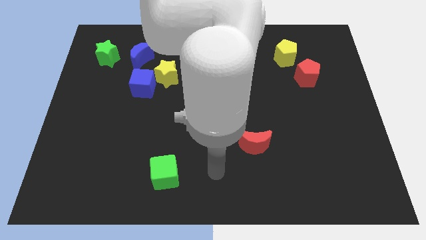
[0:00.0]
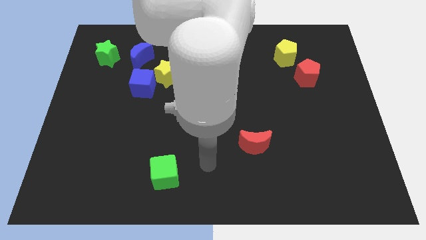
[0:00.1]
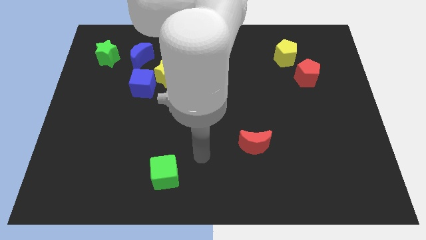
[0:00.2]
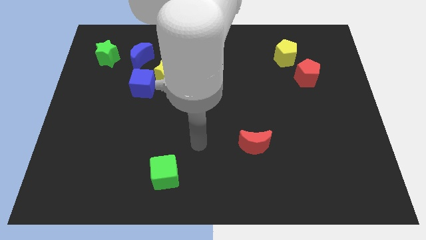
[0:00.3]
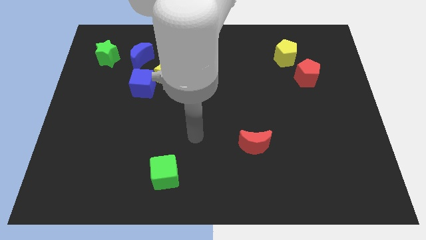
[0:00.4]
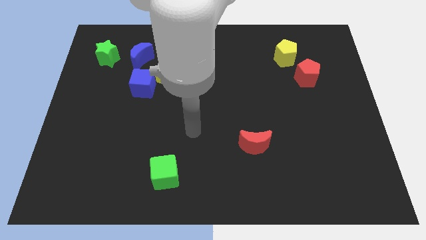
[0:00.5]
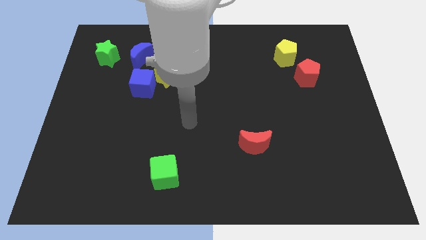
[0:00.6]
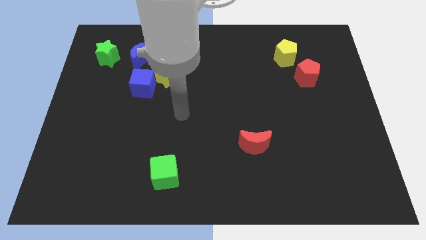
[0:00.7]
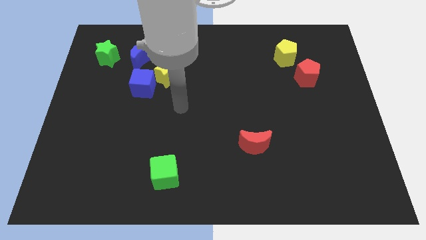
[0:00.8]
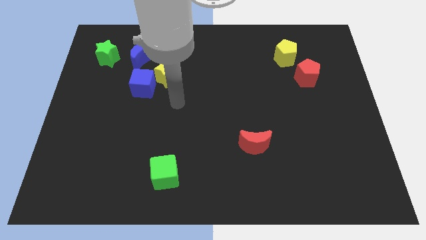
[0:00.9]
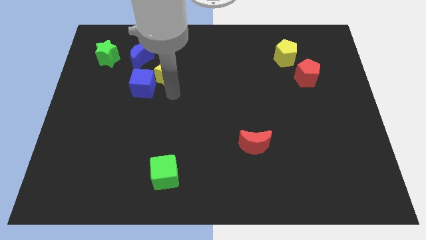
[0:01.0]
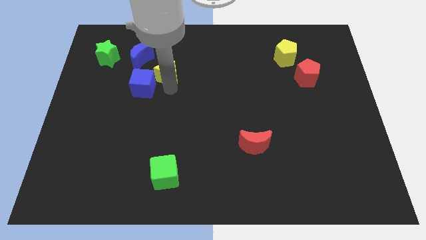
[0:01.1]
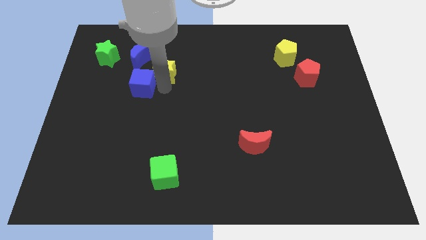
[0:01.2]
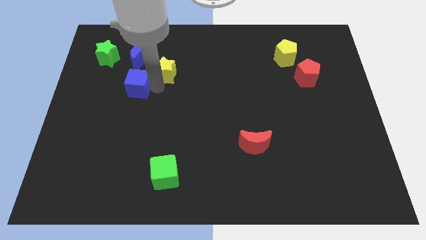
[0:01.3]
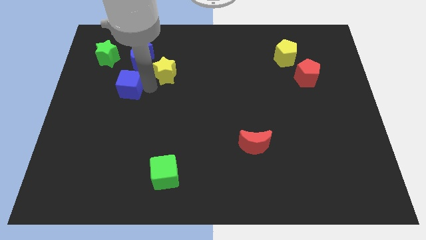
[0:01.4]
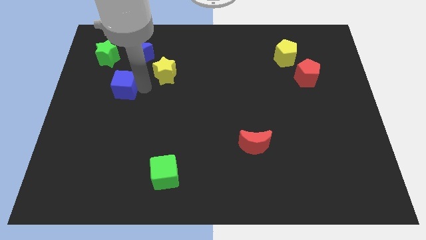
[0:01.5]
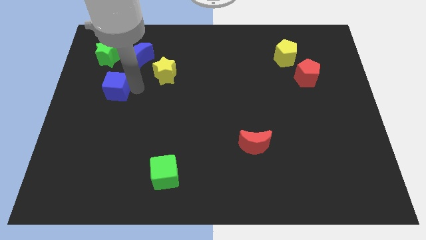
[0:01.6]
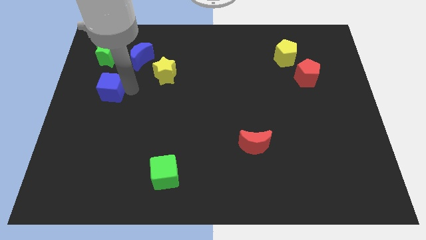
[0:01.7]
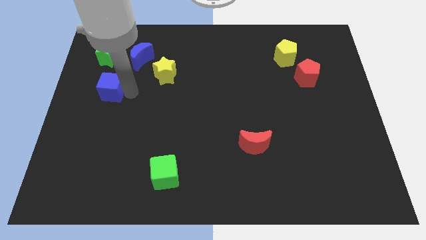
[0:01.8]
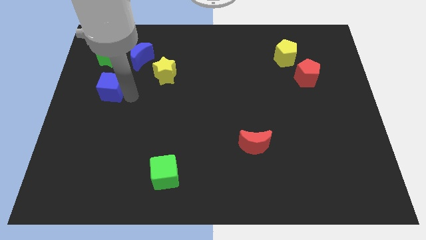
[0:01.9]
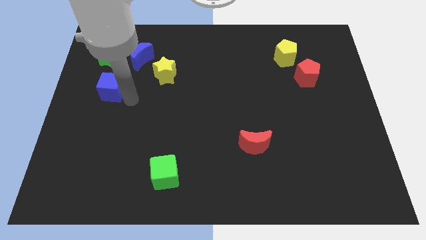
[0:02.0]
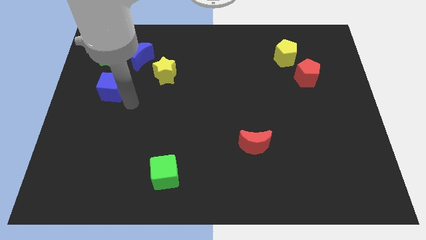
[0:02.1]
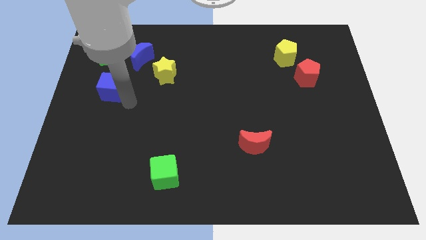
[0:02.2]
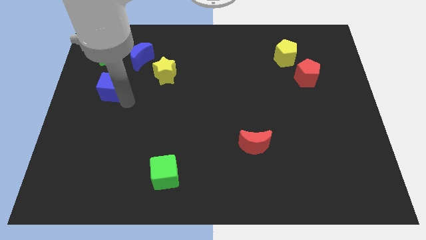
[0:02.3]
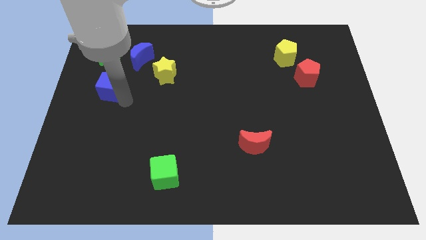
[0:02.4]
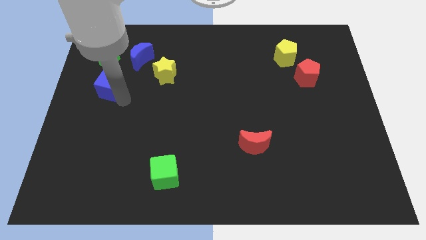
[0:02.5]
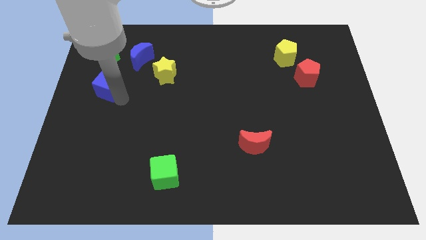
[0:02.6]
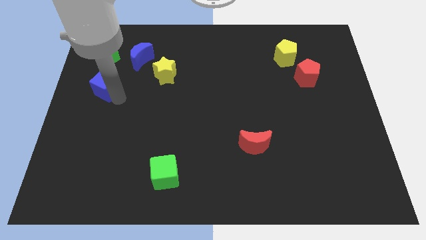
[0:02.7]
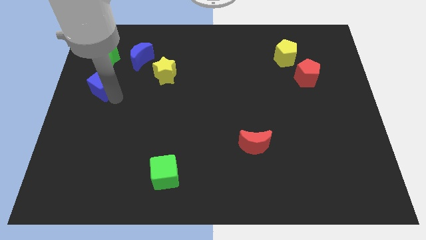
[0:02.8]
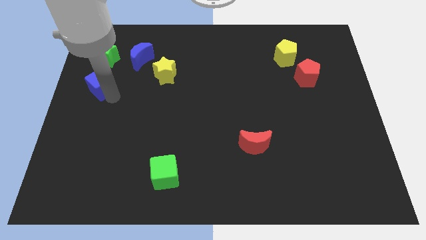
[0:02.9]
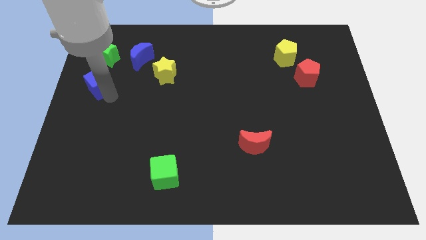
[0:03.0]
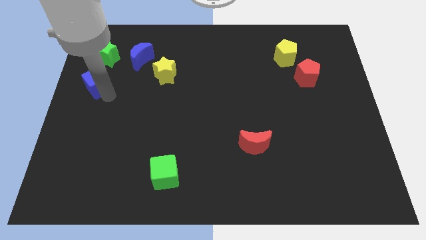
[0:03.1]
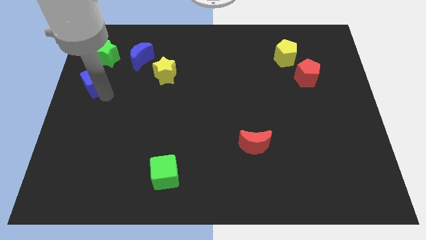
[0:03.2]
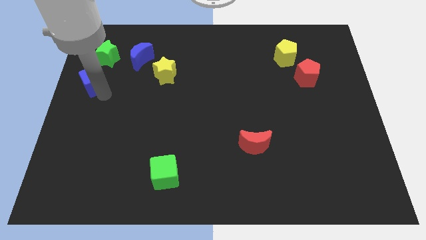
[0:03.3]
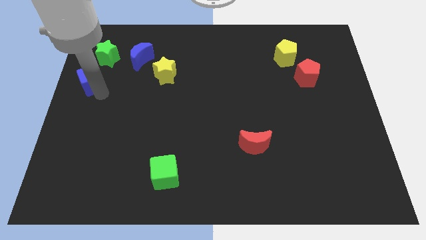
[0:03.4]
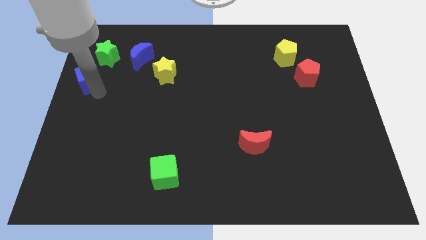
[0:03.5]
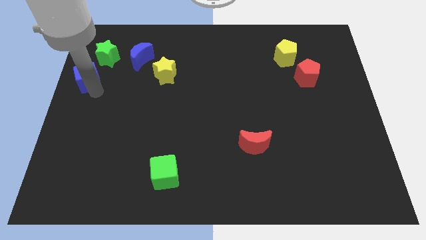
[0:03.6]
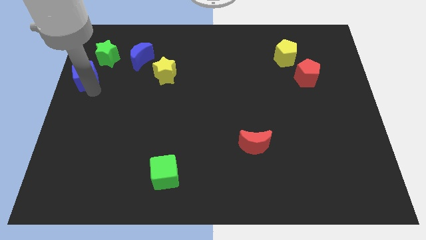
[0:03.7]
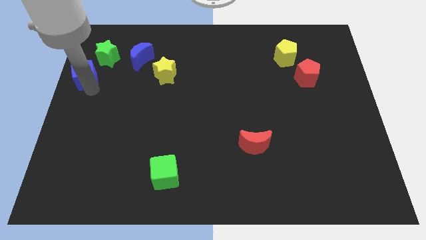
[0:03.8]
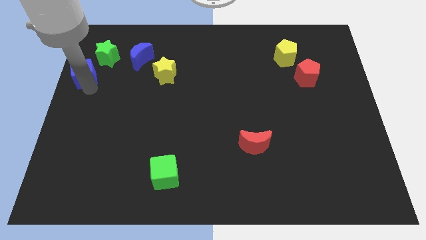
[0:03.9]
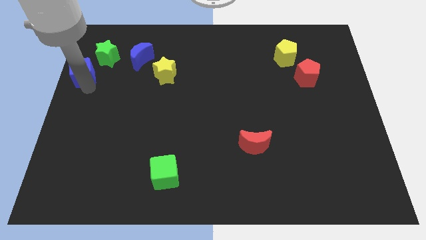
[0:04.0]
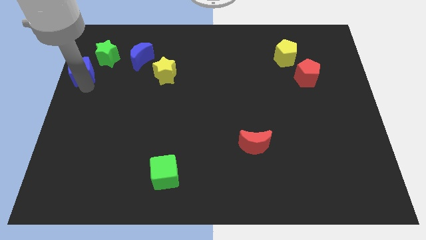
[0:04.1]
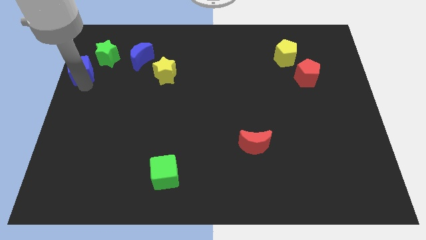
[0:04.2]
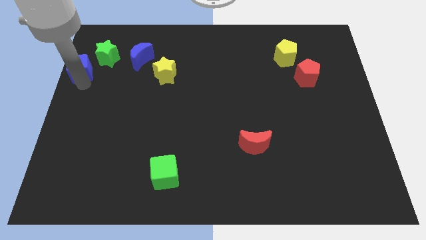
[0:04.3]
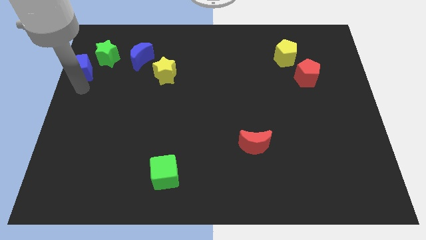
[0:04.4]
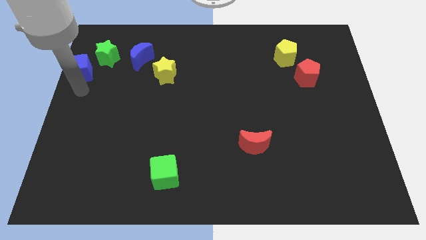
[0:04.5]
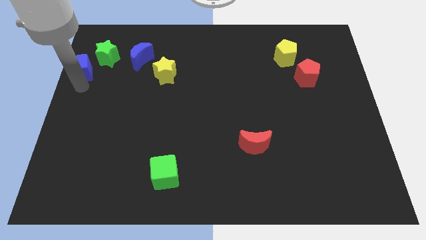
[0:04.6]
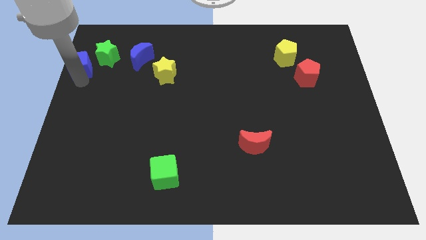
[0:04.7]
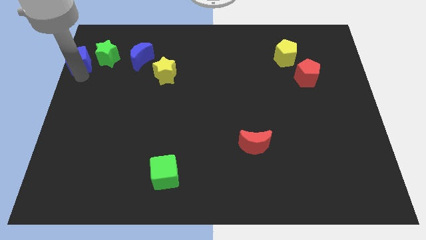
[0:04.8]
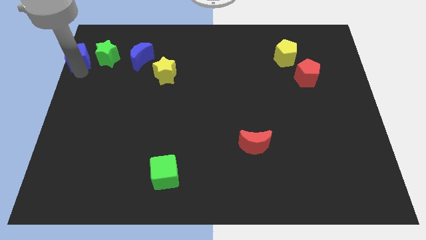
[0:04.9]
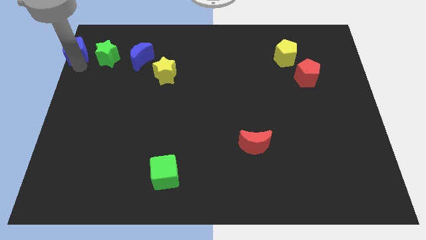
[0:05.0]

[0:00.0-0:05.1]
put the blue cube to the top left corner
